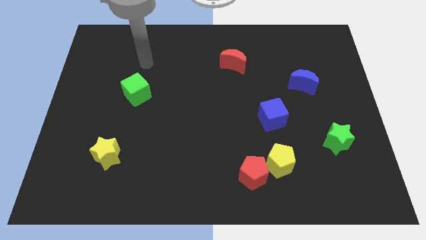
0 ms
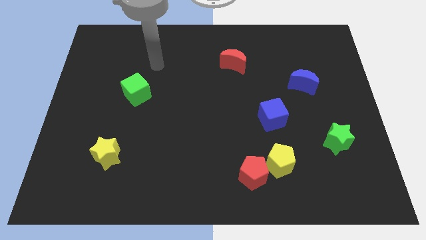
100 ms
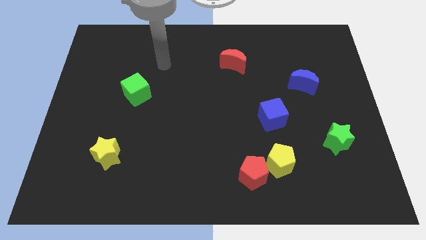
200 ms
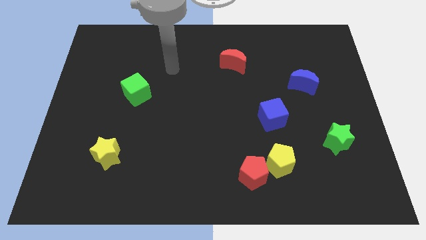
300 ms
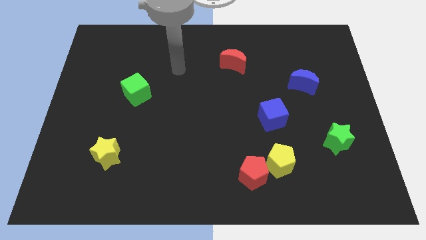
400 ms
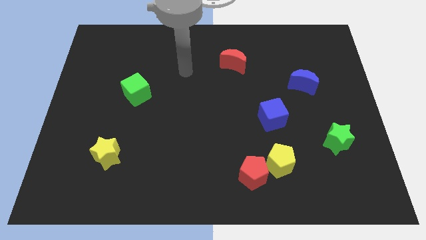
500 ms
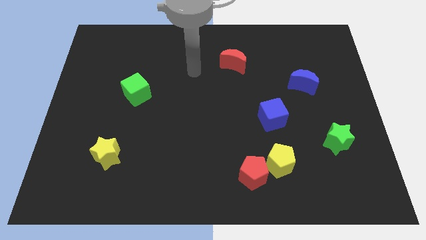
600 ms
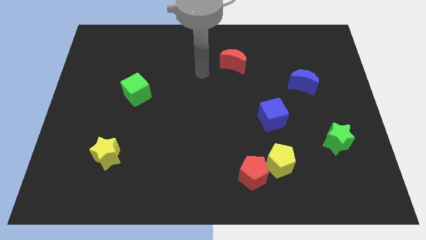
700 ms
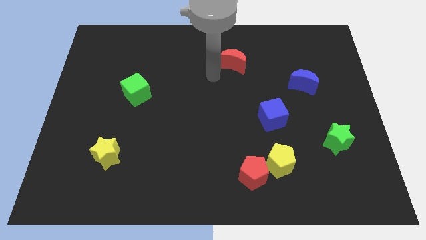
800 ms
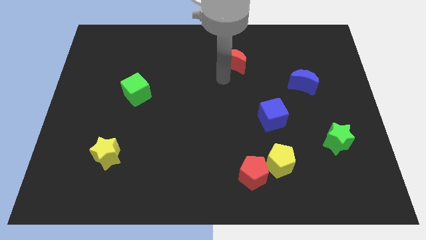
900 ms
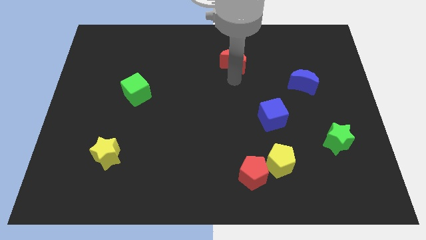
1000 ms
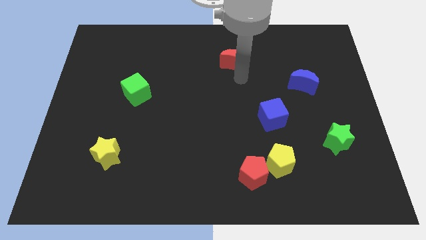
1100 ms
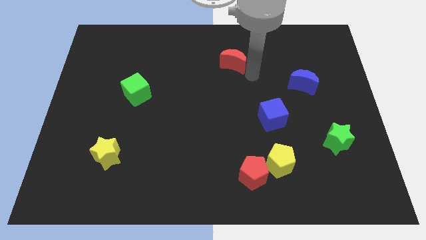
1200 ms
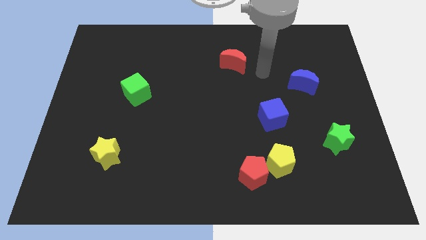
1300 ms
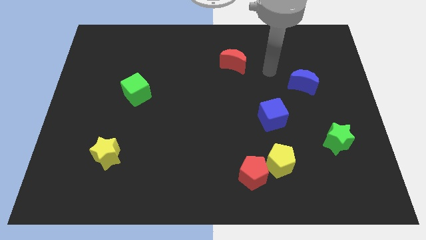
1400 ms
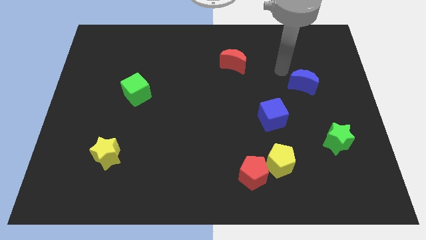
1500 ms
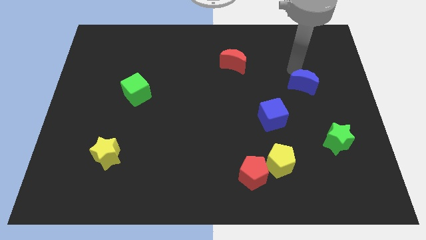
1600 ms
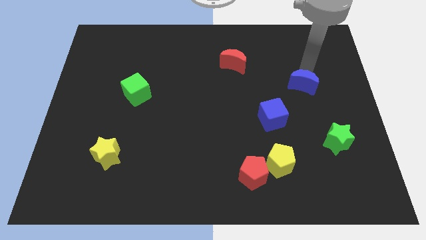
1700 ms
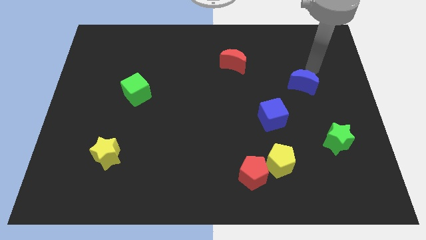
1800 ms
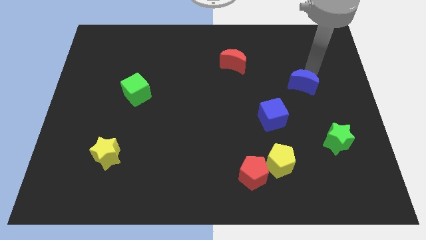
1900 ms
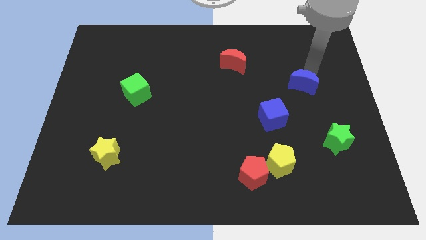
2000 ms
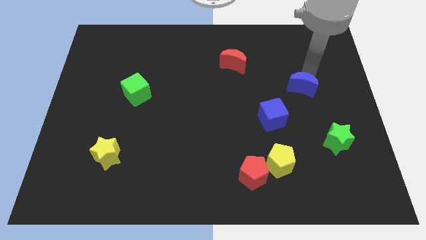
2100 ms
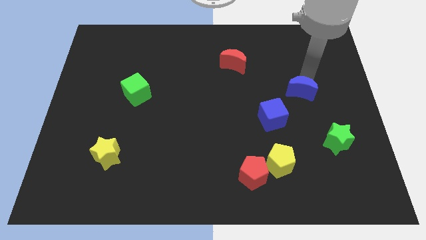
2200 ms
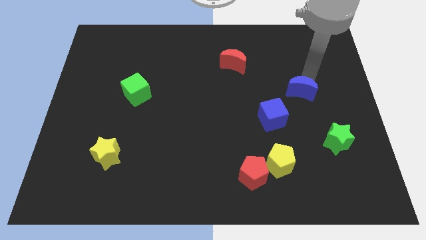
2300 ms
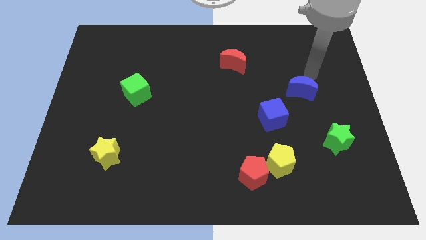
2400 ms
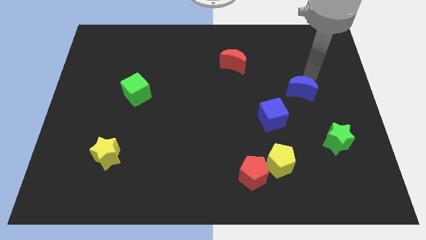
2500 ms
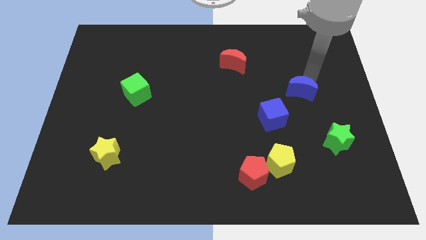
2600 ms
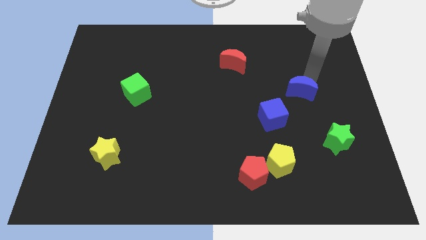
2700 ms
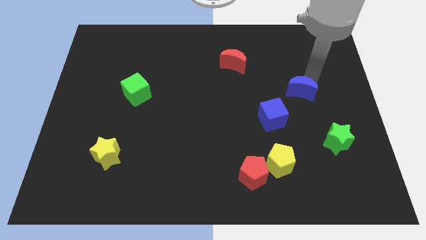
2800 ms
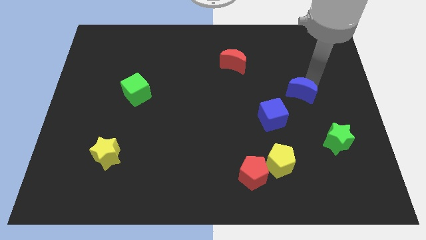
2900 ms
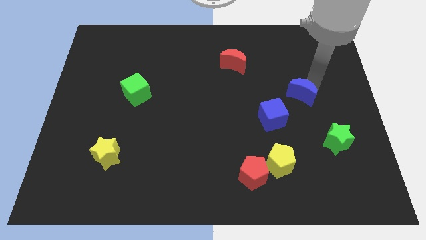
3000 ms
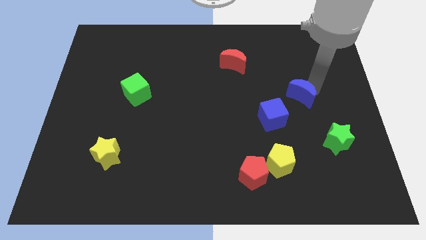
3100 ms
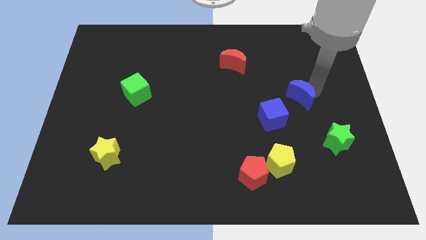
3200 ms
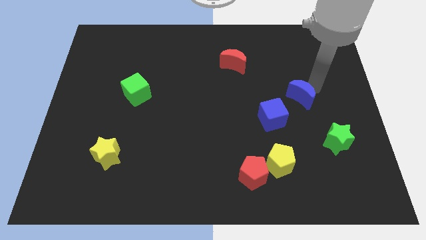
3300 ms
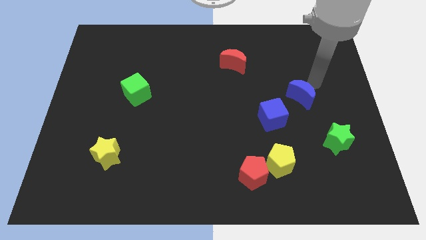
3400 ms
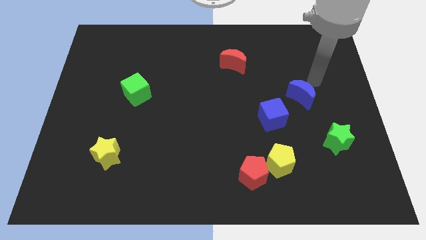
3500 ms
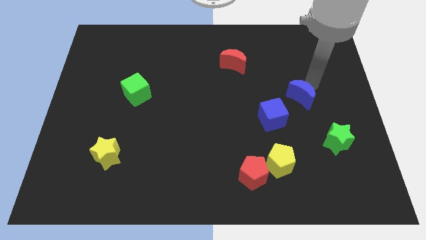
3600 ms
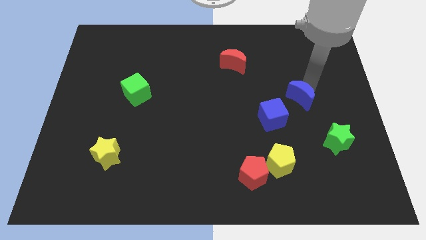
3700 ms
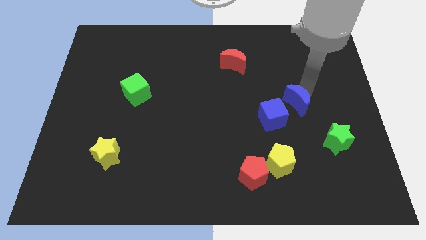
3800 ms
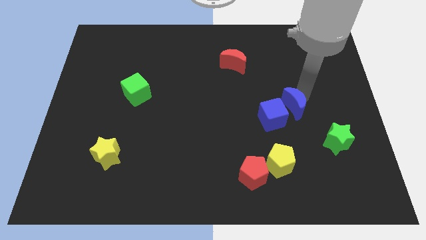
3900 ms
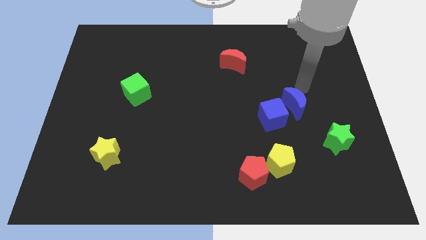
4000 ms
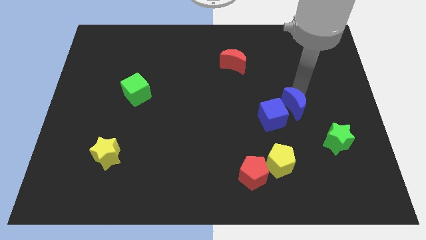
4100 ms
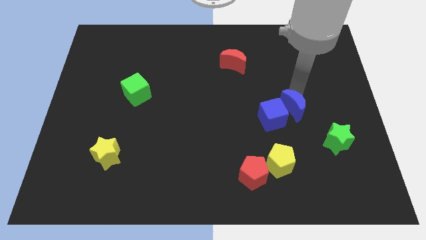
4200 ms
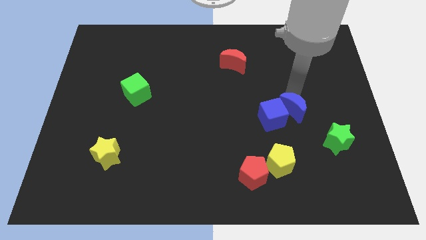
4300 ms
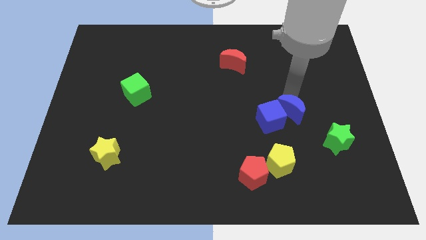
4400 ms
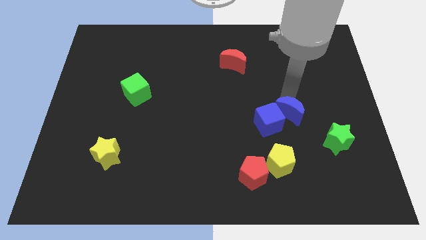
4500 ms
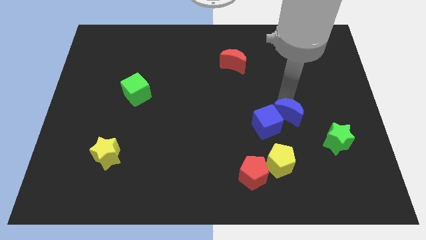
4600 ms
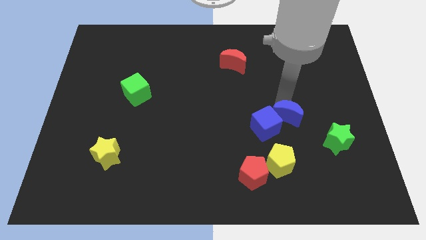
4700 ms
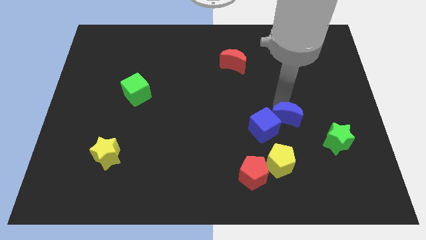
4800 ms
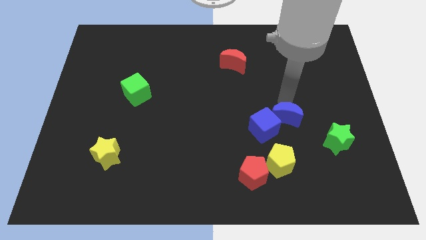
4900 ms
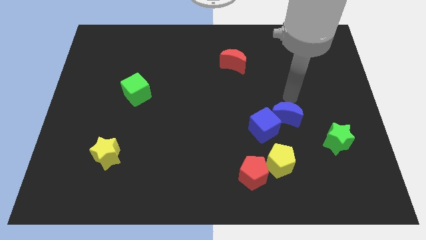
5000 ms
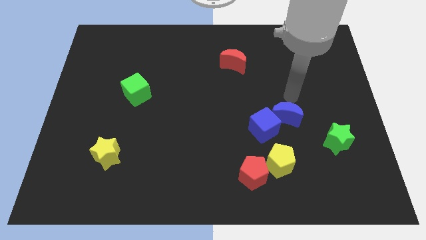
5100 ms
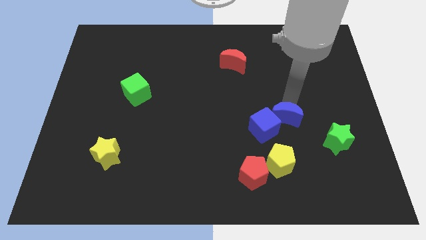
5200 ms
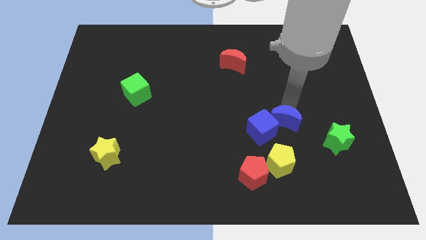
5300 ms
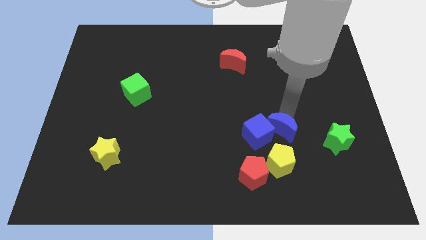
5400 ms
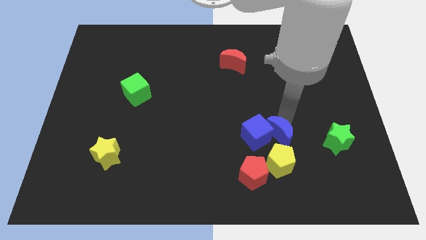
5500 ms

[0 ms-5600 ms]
push the blue moon to the top right side of the red pentagon

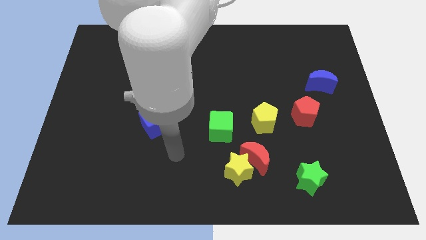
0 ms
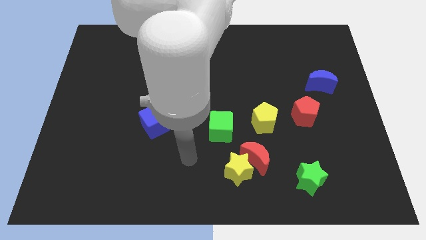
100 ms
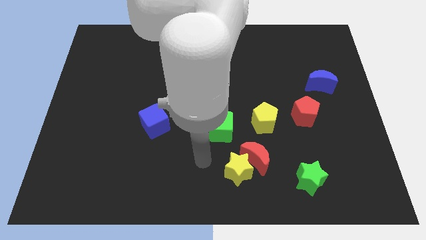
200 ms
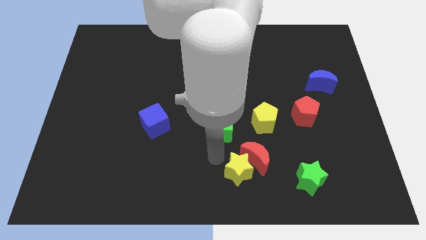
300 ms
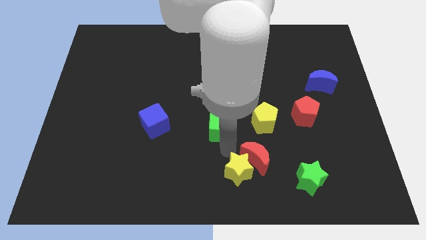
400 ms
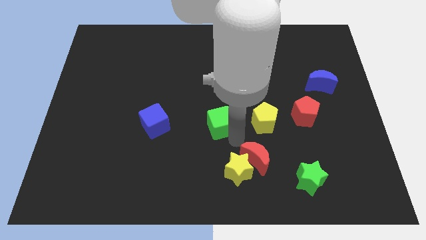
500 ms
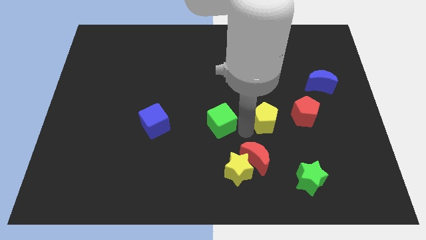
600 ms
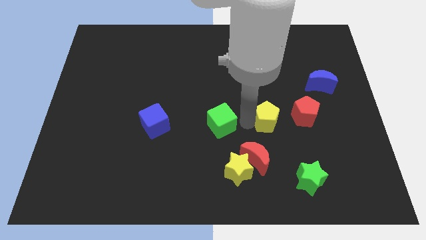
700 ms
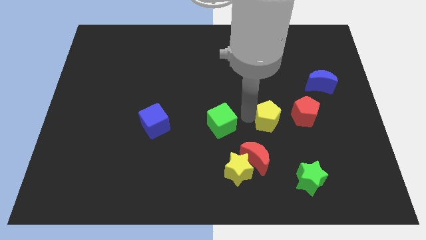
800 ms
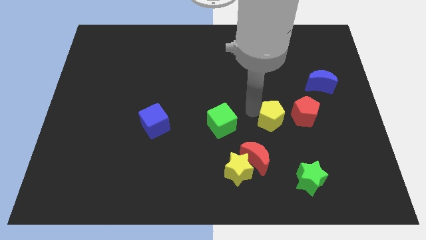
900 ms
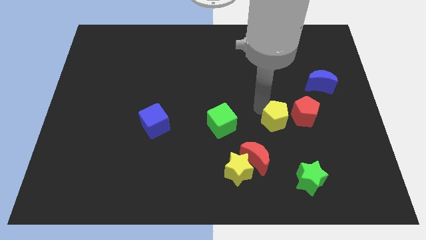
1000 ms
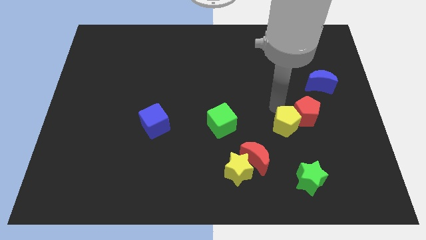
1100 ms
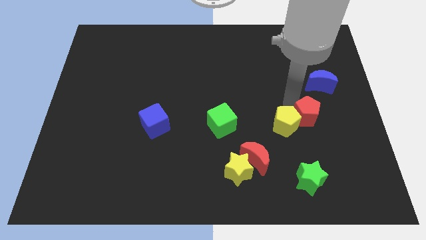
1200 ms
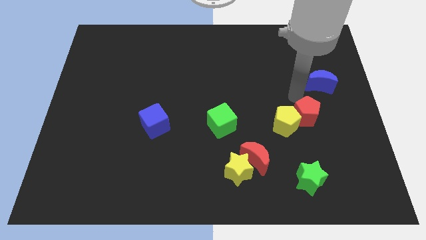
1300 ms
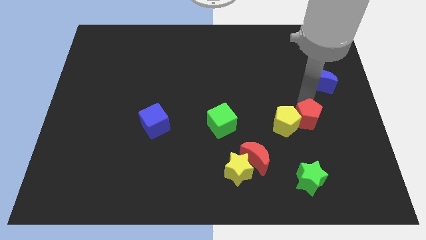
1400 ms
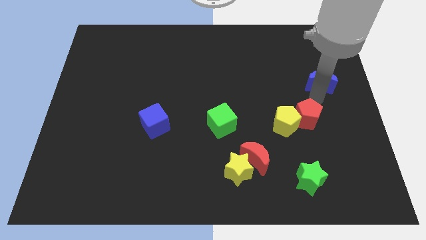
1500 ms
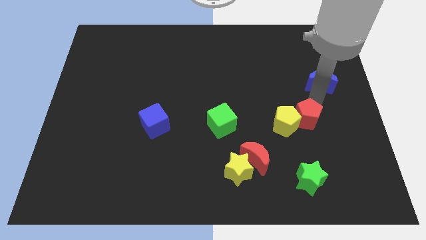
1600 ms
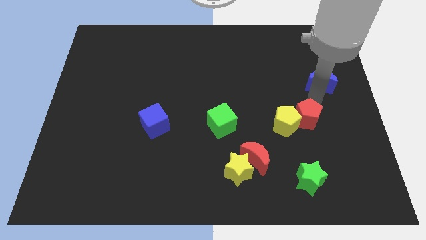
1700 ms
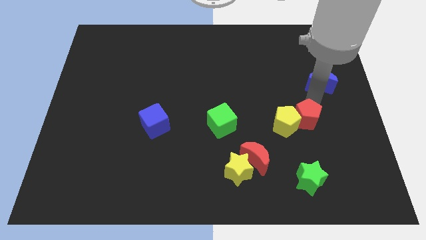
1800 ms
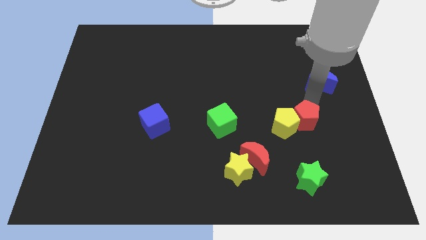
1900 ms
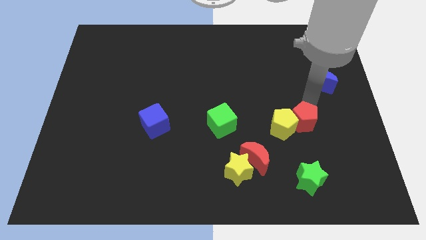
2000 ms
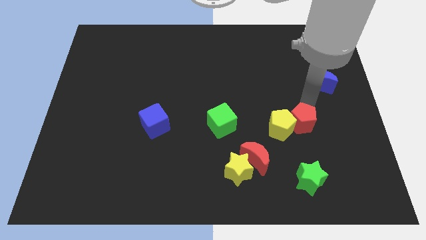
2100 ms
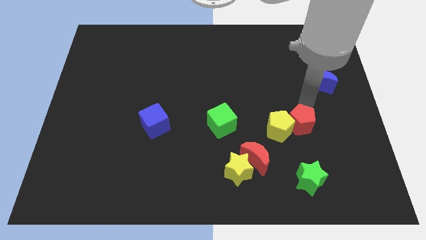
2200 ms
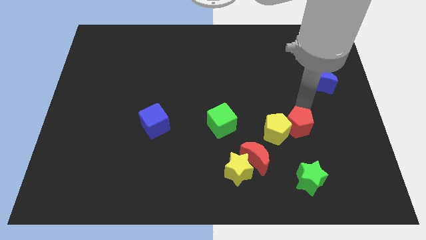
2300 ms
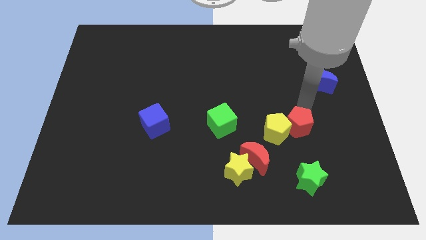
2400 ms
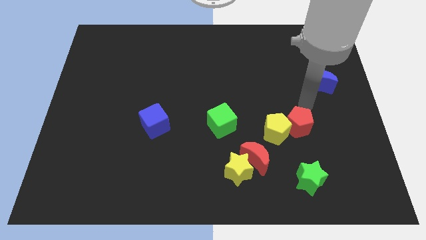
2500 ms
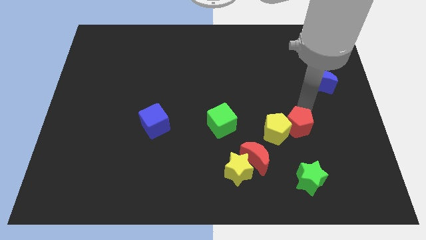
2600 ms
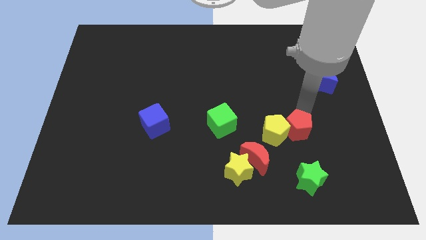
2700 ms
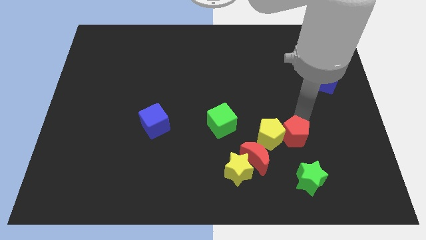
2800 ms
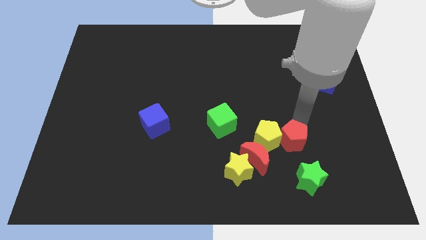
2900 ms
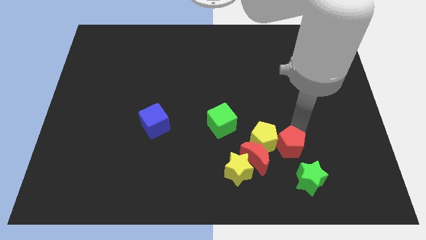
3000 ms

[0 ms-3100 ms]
push the red pentagon diagonally up and to the left of the green star
